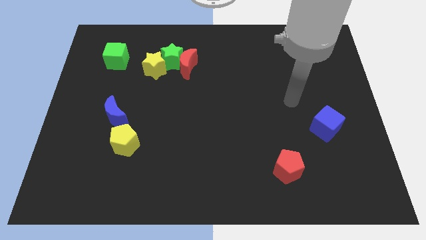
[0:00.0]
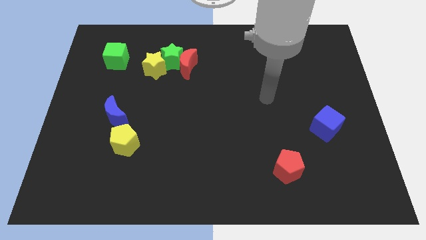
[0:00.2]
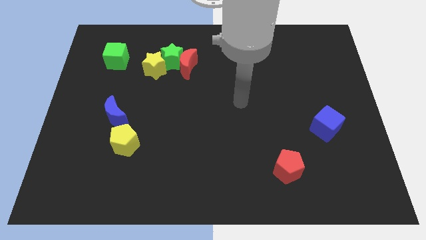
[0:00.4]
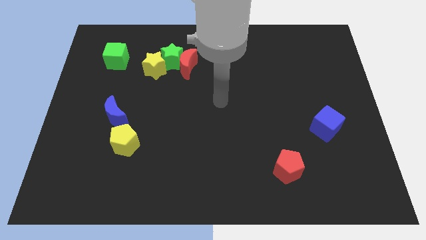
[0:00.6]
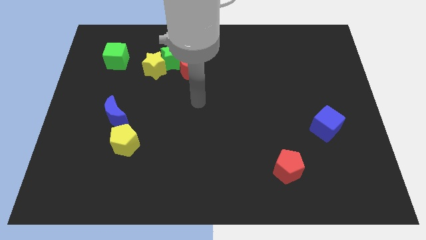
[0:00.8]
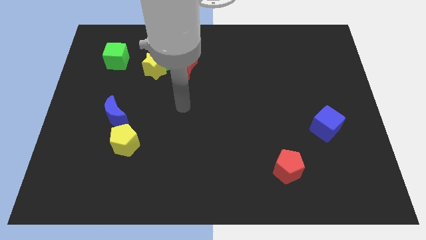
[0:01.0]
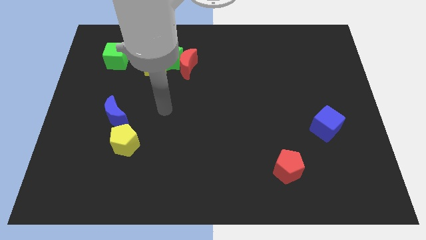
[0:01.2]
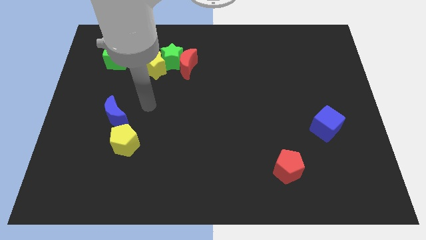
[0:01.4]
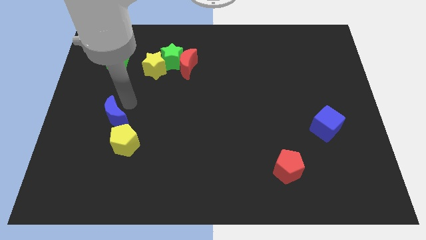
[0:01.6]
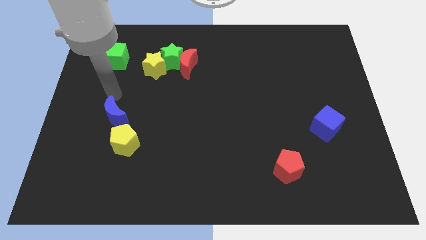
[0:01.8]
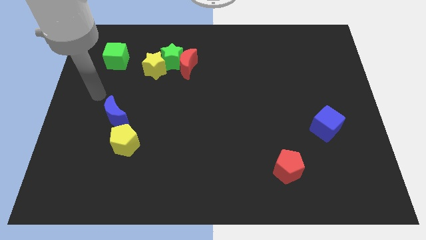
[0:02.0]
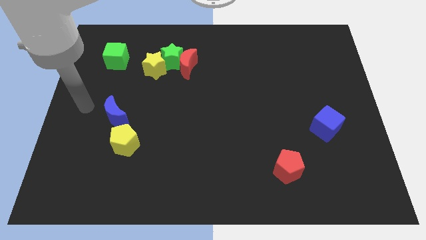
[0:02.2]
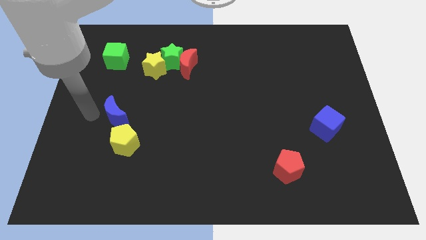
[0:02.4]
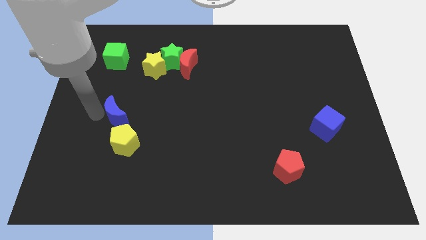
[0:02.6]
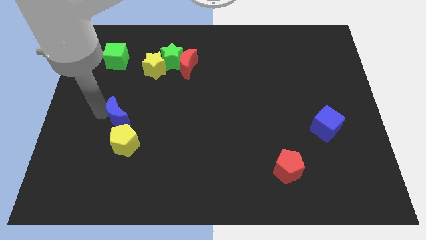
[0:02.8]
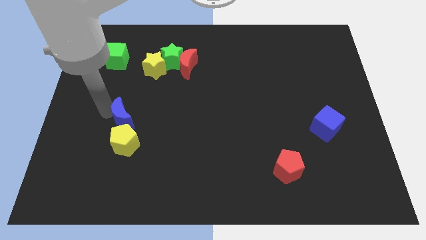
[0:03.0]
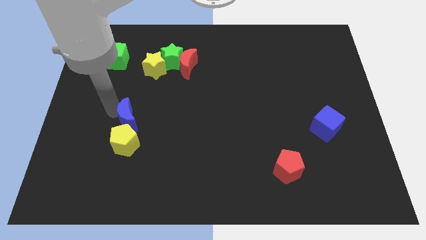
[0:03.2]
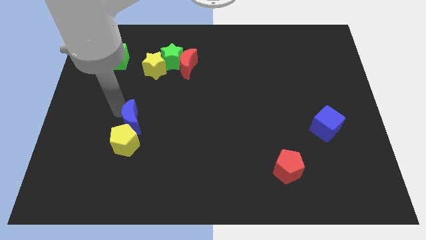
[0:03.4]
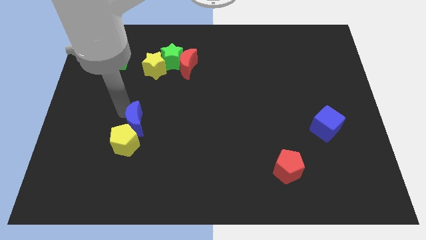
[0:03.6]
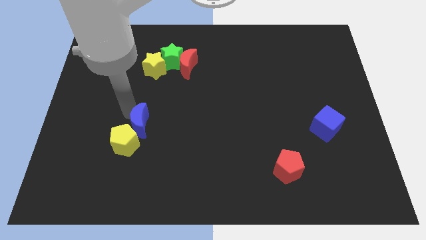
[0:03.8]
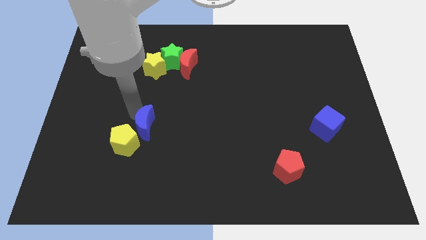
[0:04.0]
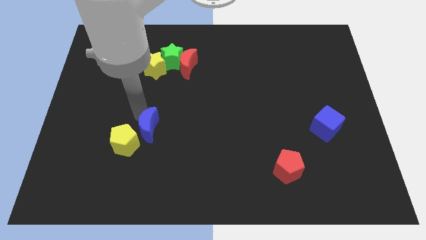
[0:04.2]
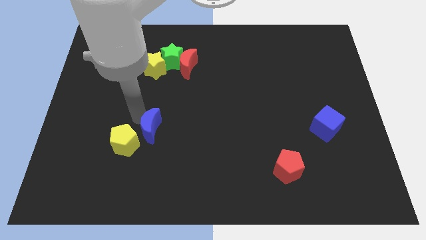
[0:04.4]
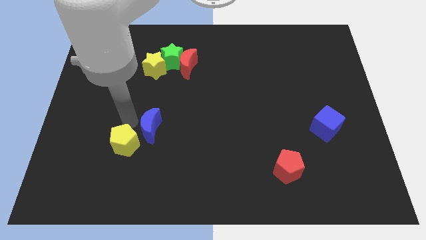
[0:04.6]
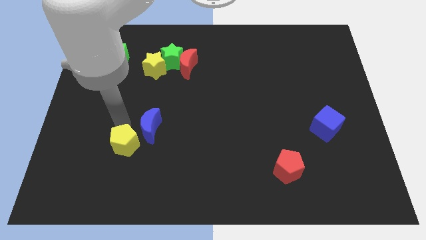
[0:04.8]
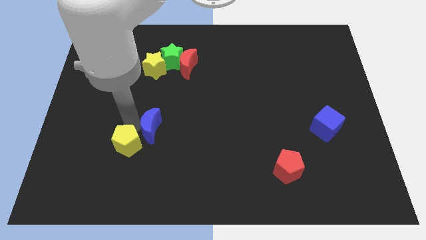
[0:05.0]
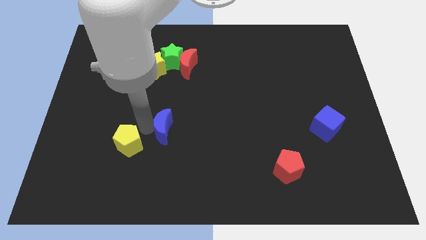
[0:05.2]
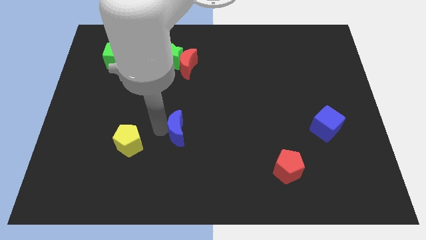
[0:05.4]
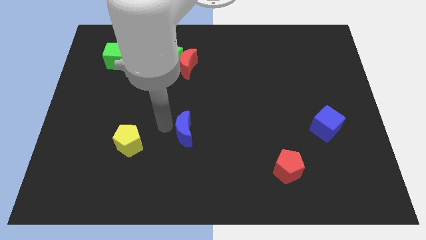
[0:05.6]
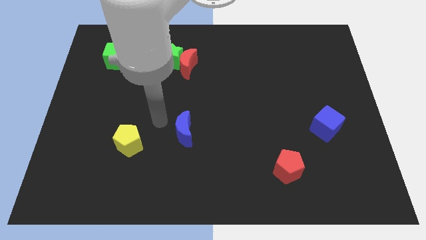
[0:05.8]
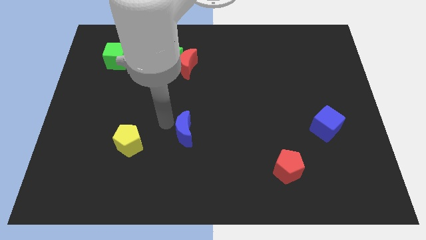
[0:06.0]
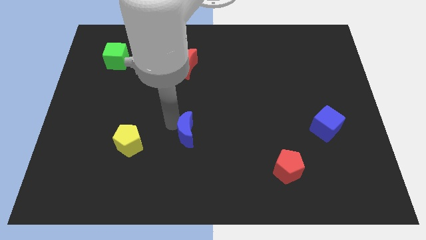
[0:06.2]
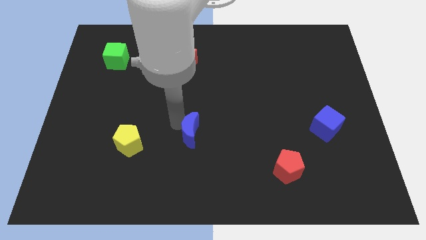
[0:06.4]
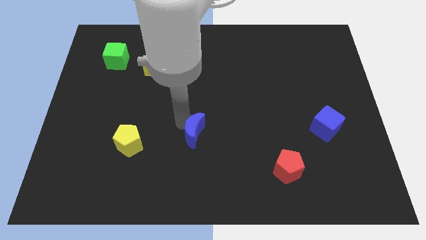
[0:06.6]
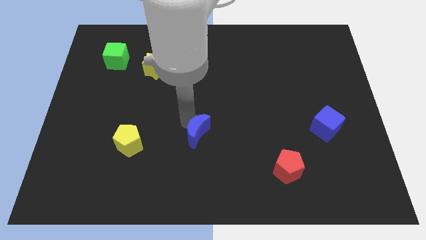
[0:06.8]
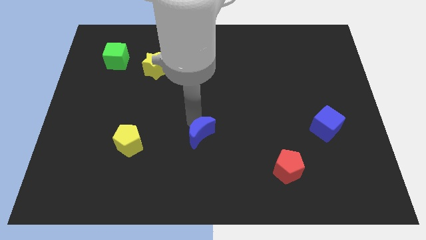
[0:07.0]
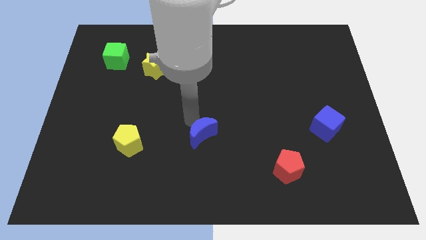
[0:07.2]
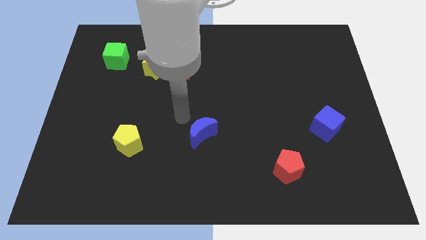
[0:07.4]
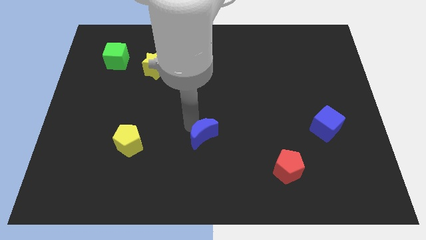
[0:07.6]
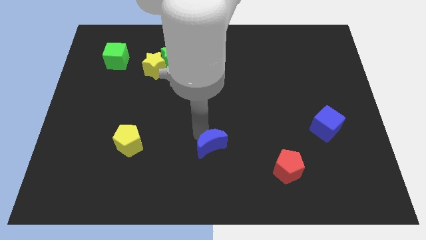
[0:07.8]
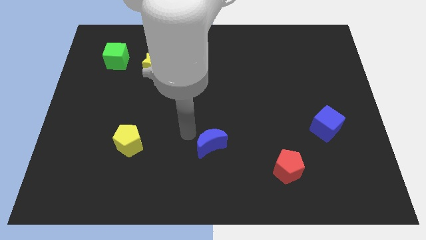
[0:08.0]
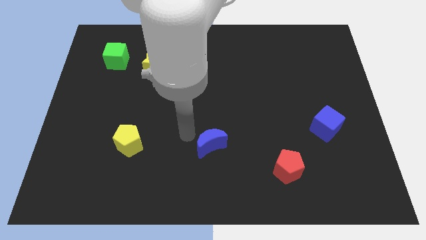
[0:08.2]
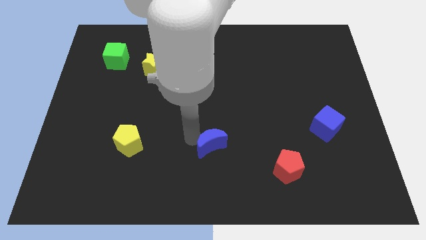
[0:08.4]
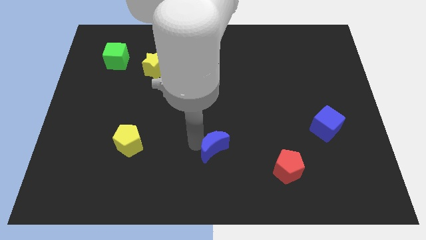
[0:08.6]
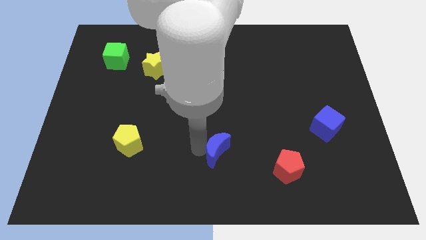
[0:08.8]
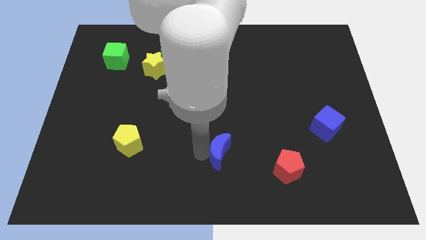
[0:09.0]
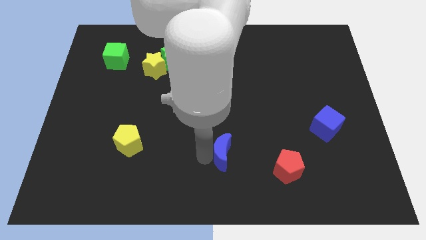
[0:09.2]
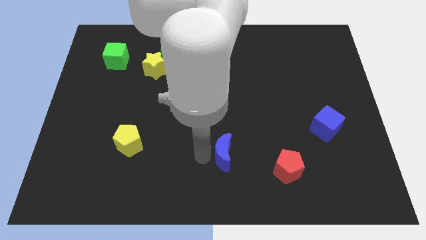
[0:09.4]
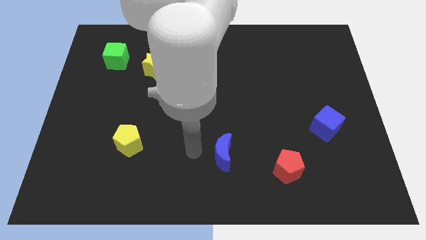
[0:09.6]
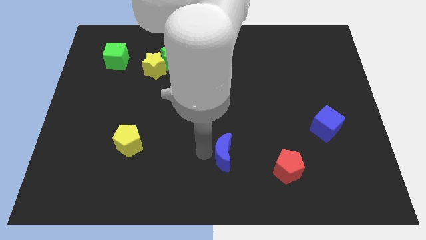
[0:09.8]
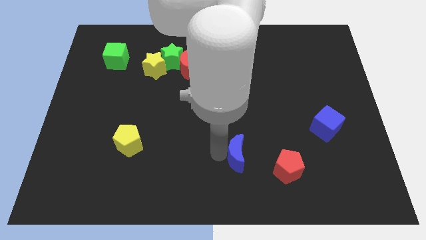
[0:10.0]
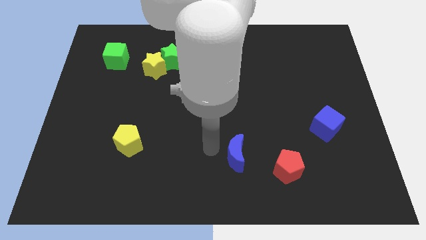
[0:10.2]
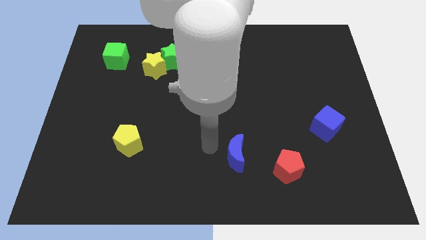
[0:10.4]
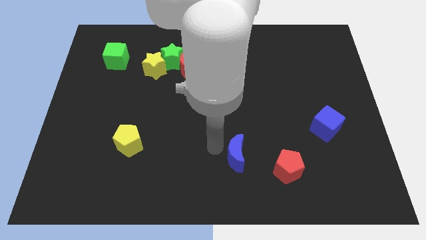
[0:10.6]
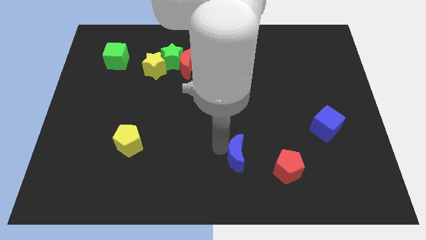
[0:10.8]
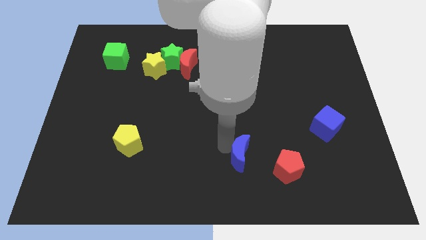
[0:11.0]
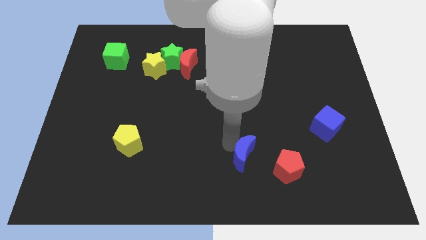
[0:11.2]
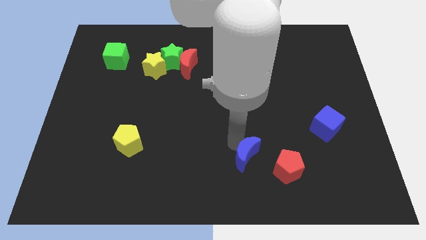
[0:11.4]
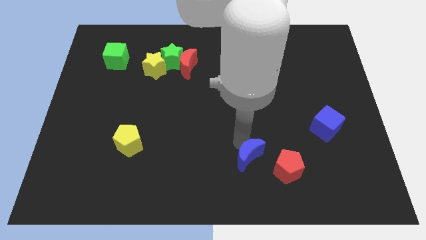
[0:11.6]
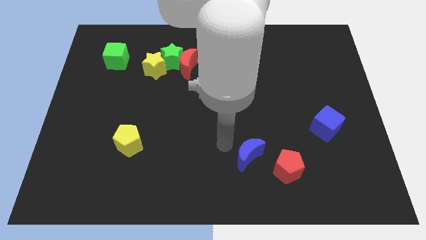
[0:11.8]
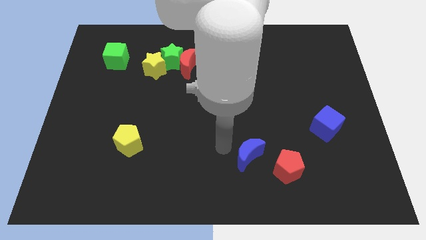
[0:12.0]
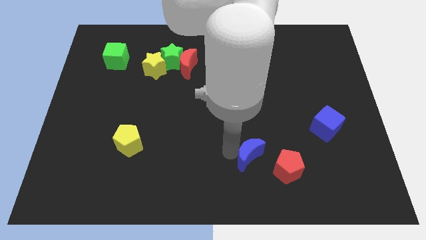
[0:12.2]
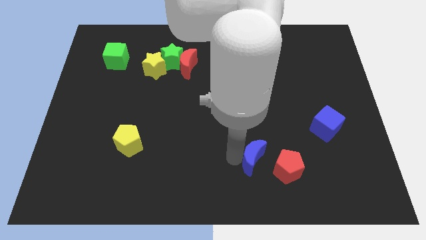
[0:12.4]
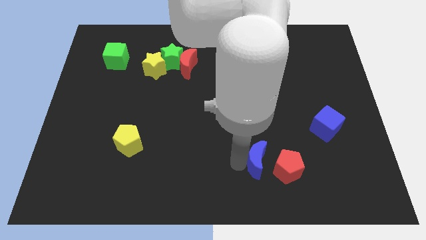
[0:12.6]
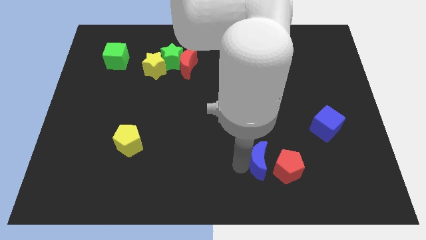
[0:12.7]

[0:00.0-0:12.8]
push the blue moon towards the red pentagon

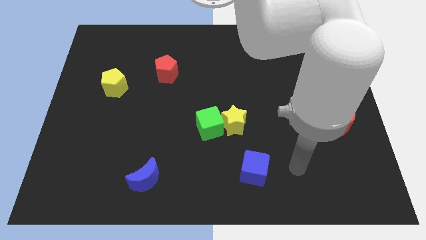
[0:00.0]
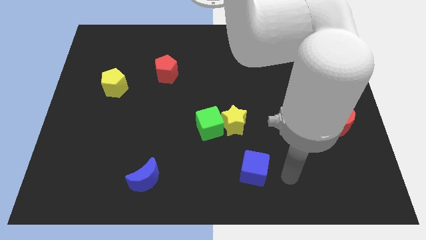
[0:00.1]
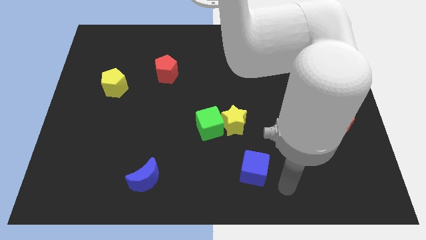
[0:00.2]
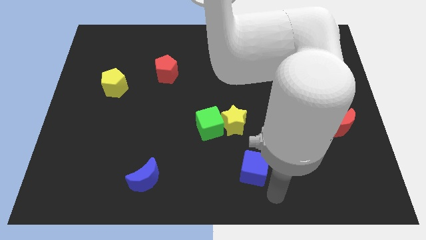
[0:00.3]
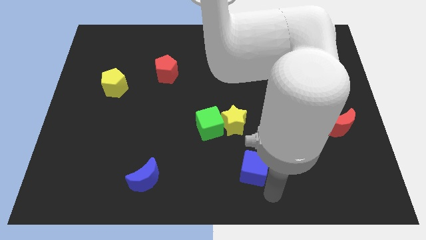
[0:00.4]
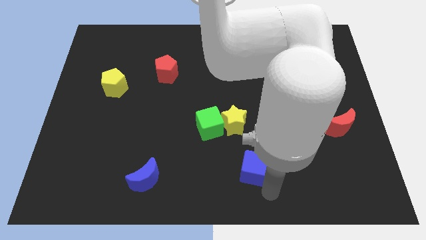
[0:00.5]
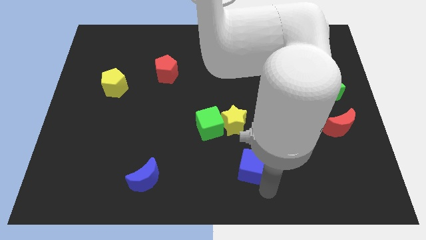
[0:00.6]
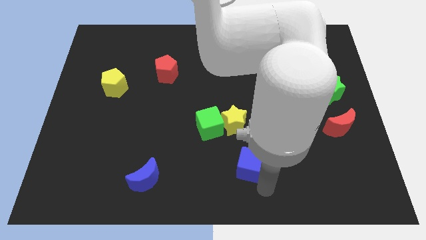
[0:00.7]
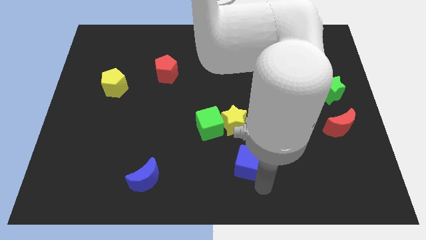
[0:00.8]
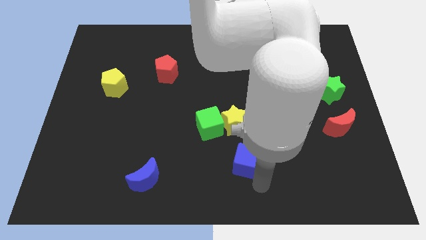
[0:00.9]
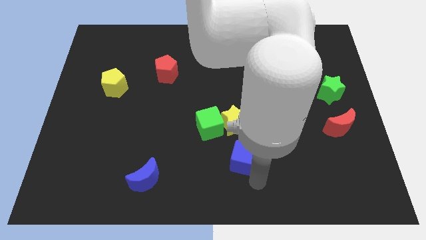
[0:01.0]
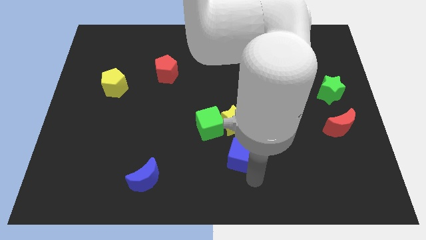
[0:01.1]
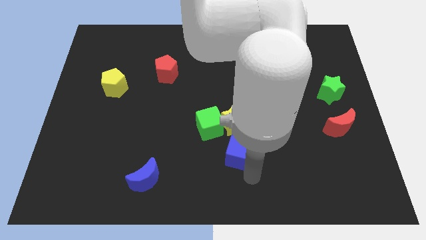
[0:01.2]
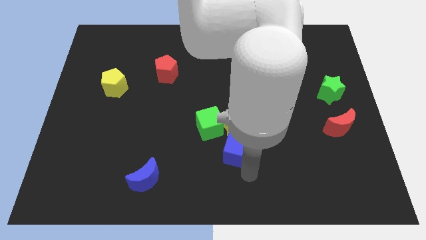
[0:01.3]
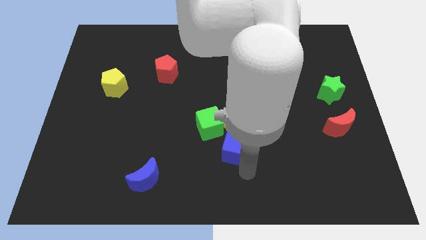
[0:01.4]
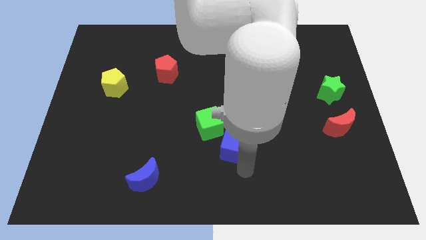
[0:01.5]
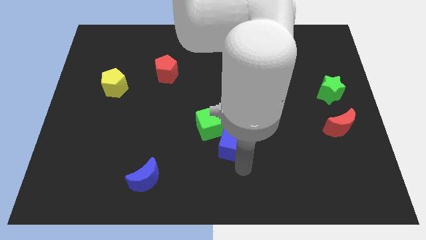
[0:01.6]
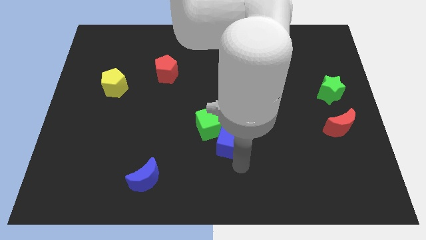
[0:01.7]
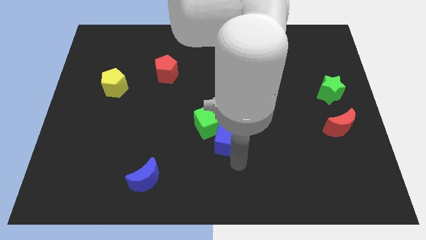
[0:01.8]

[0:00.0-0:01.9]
push the blue cube next to the green cube
